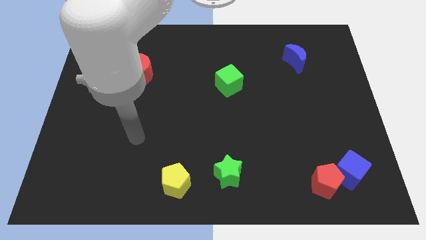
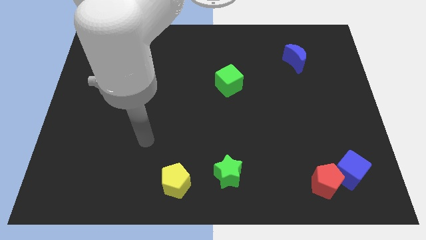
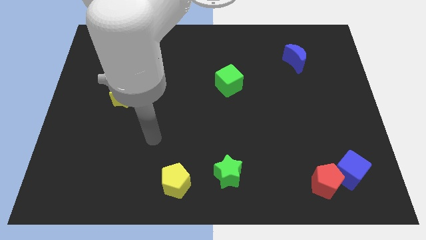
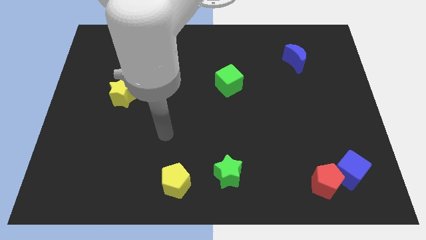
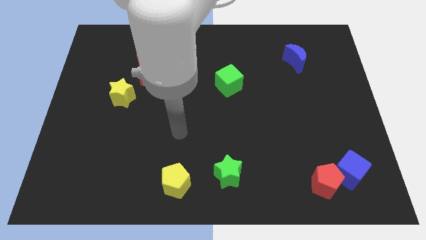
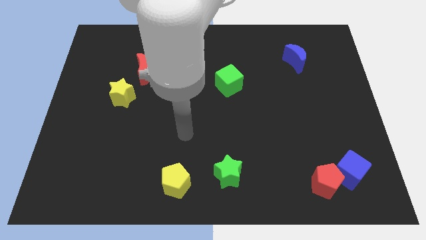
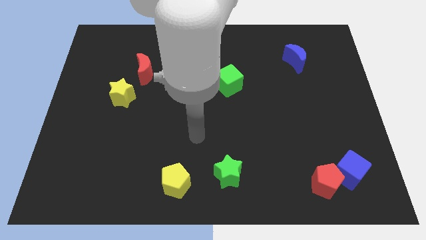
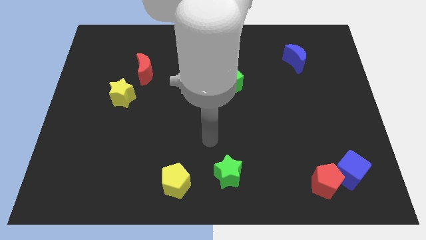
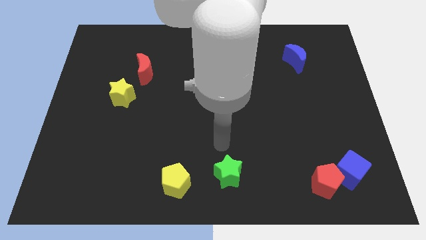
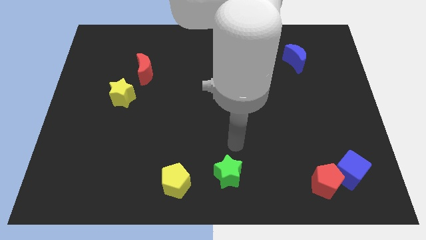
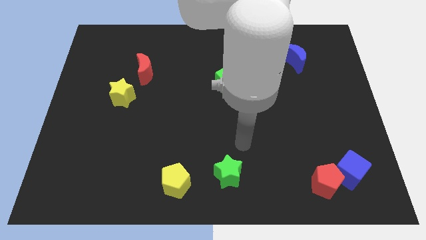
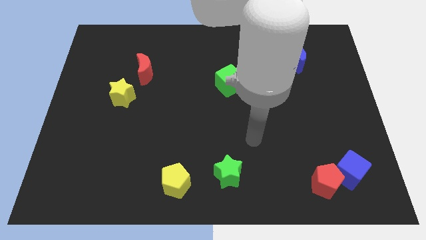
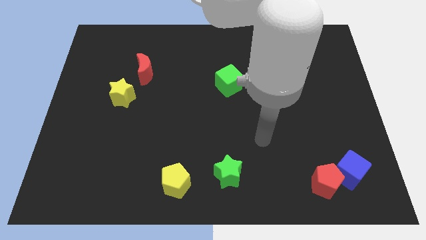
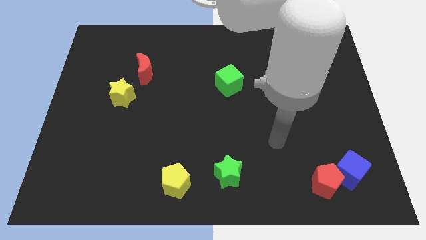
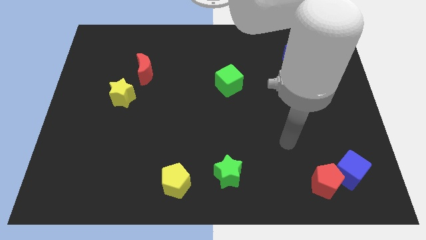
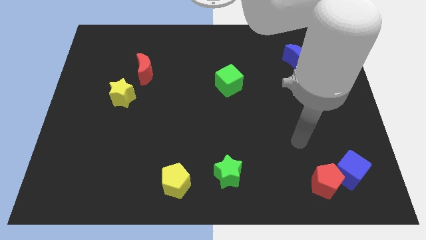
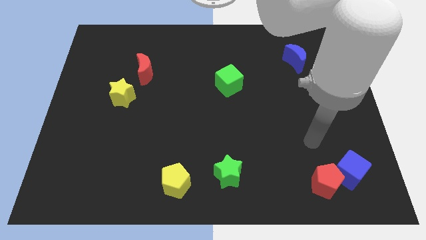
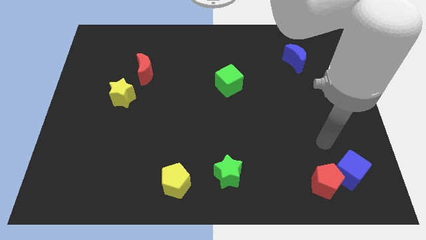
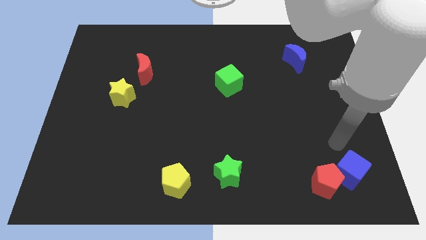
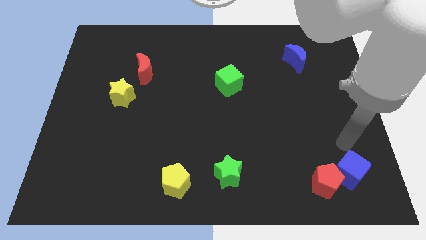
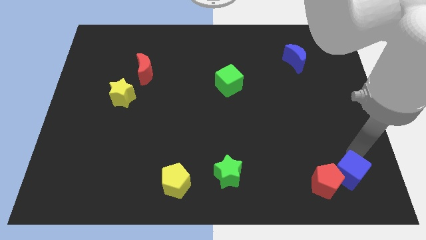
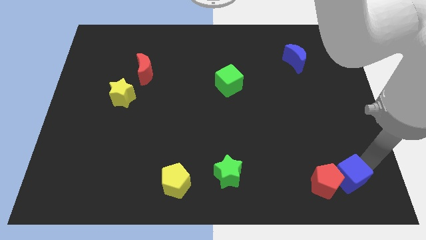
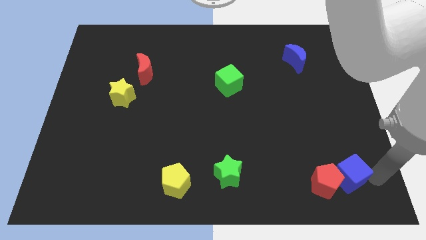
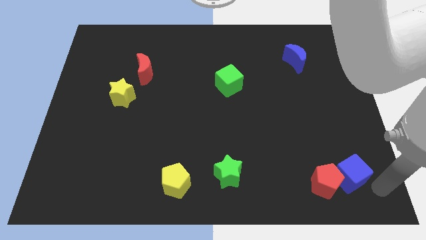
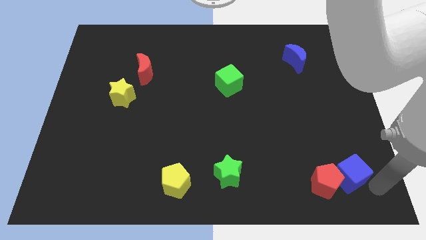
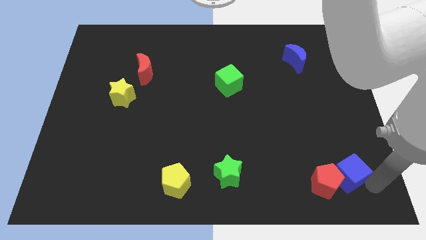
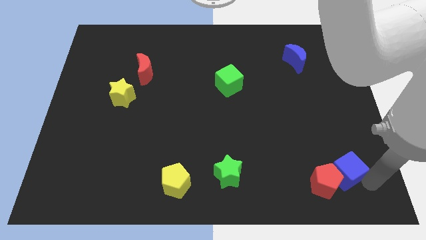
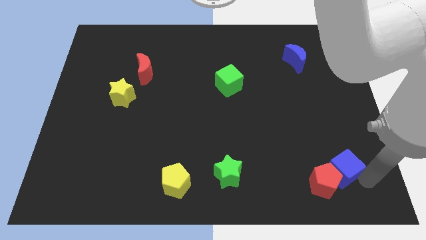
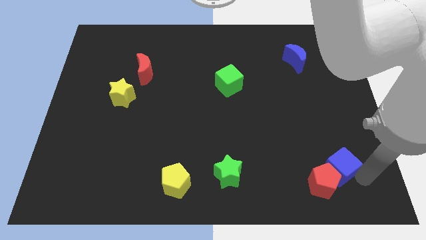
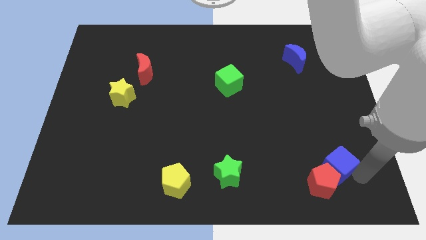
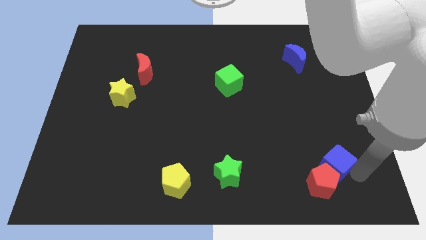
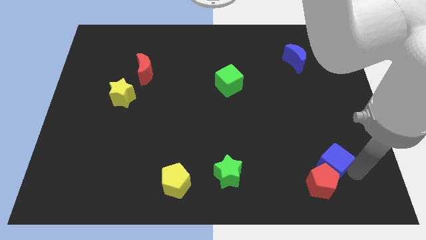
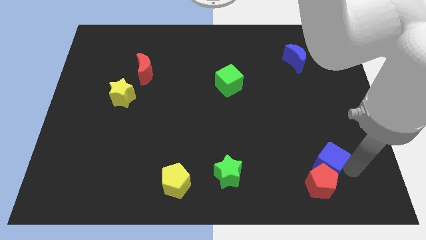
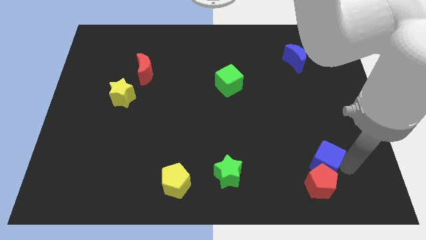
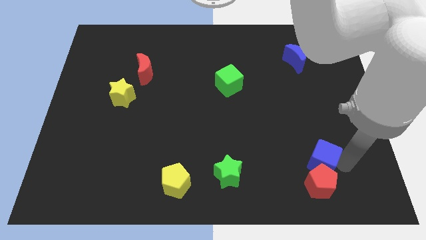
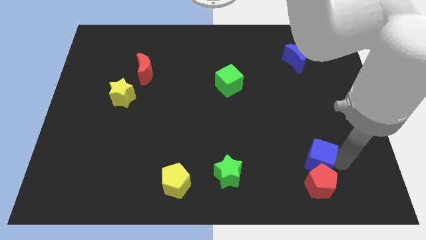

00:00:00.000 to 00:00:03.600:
put the blue cube diagonally up and to the left of the red pentagon

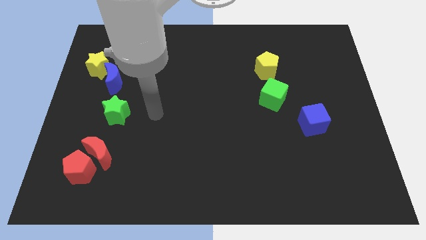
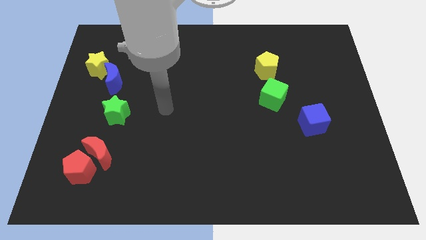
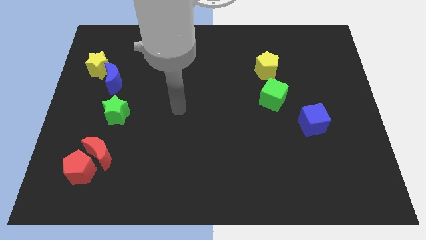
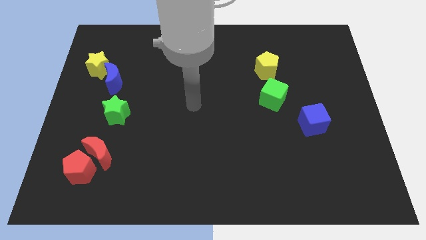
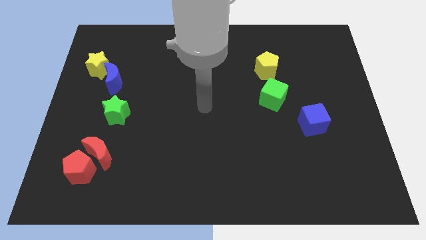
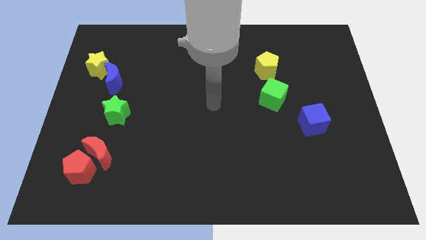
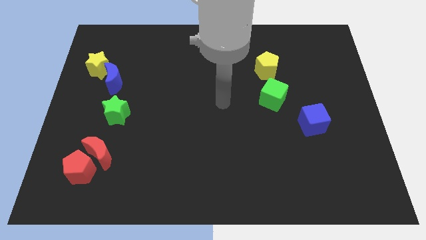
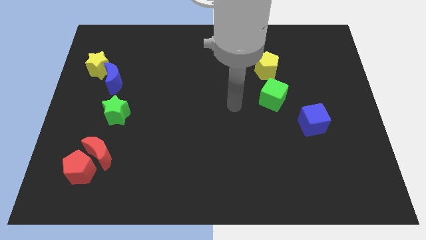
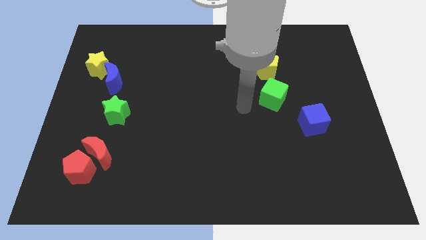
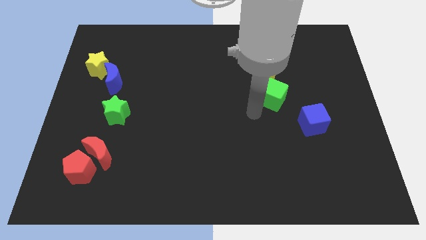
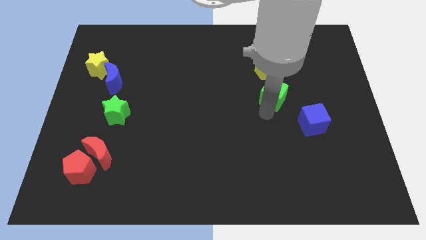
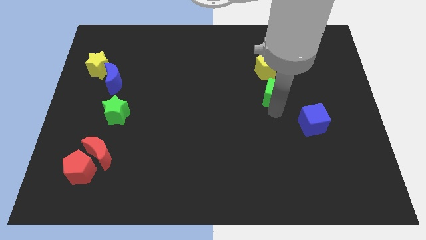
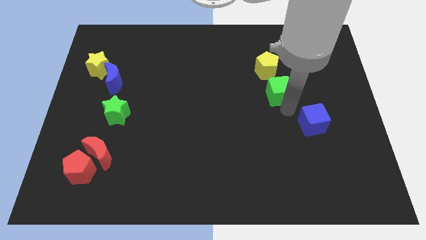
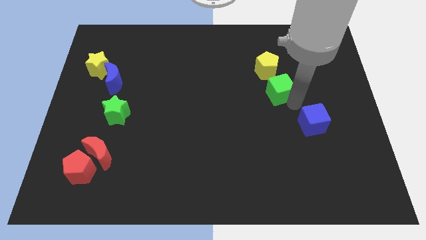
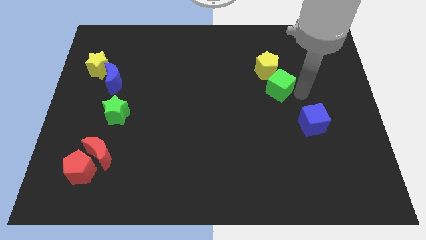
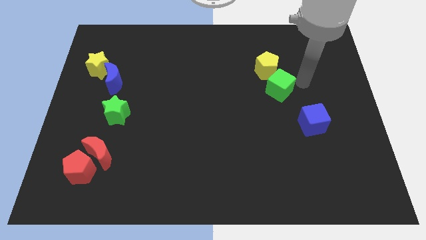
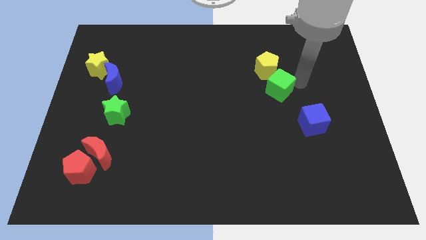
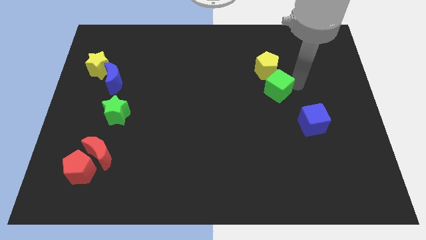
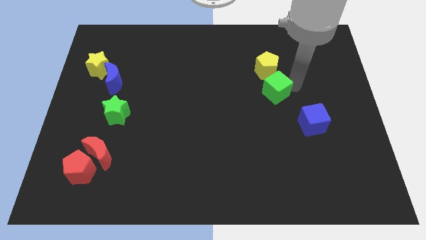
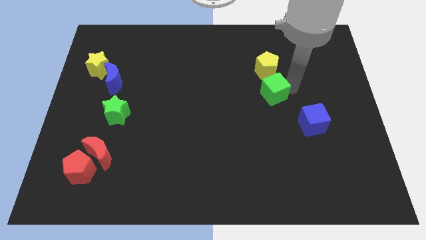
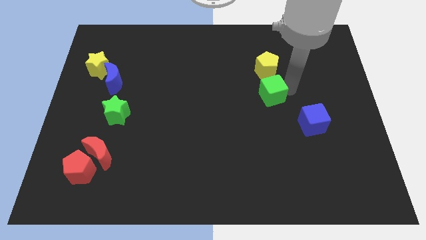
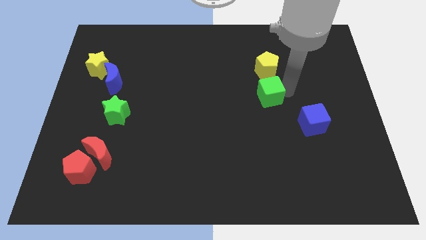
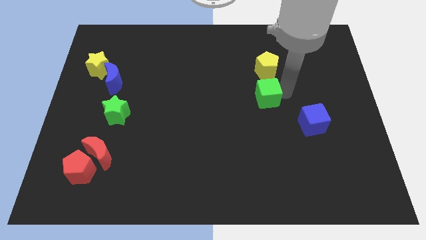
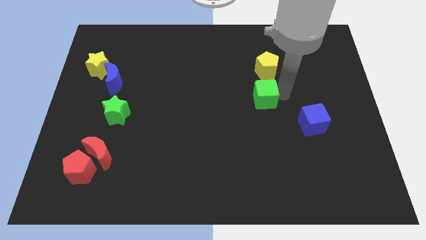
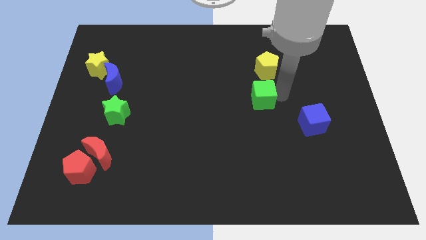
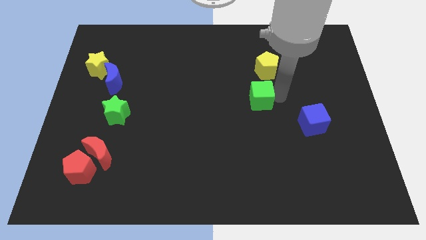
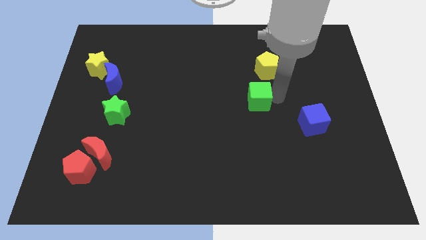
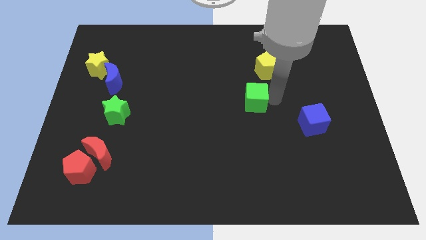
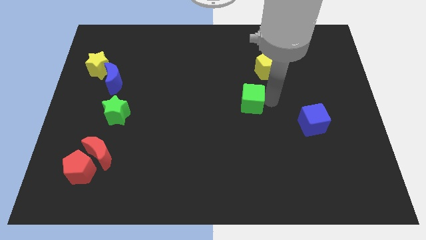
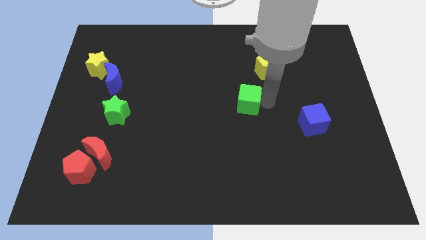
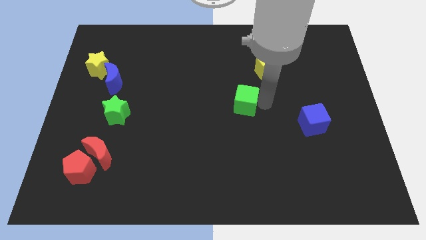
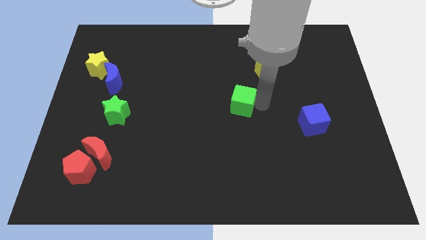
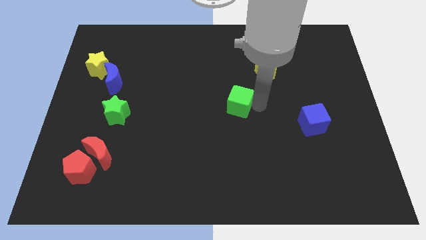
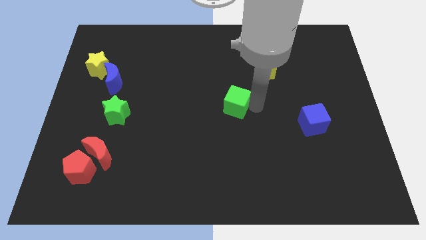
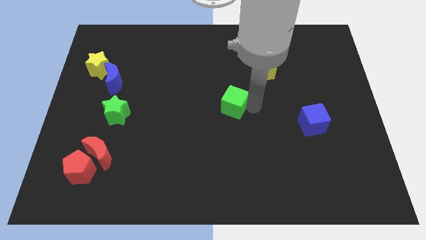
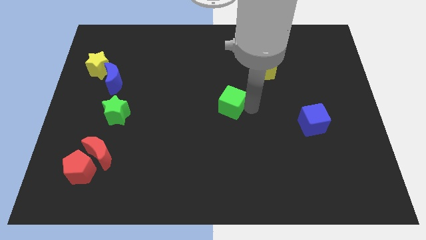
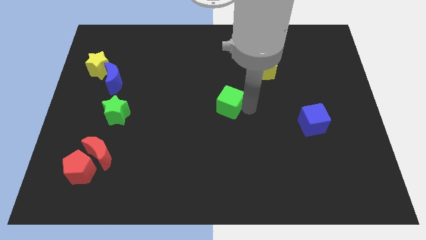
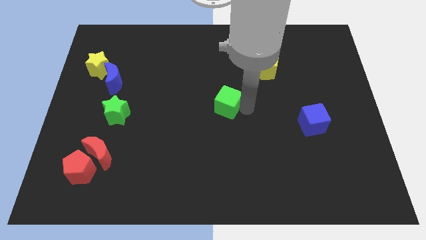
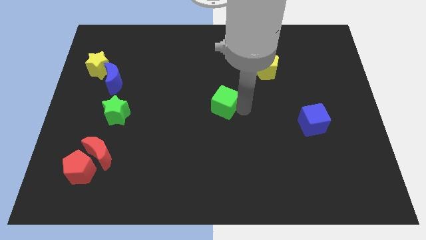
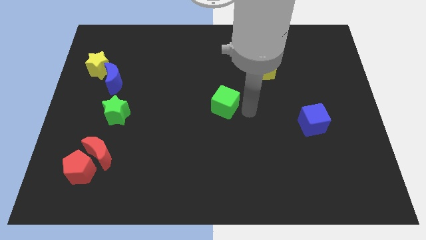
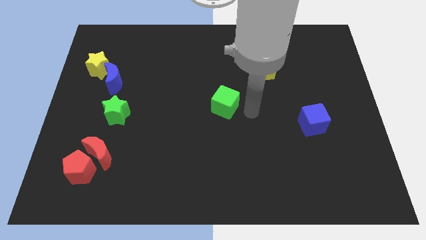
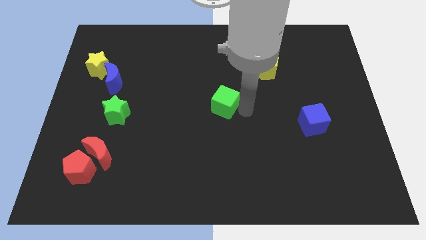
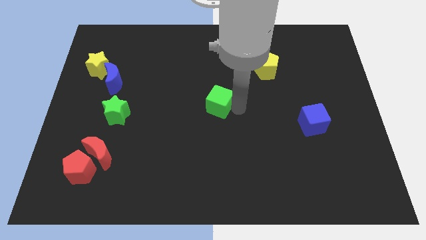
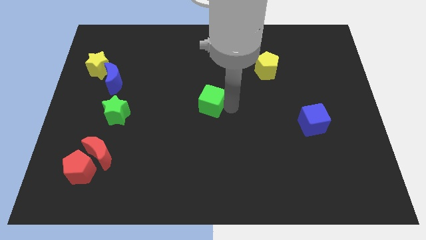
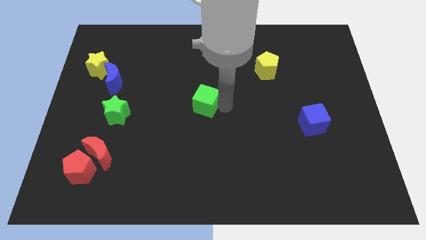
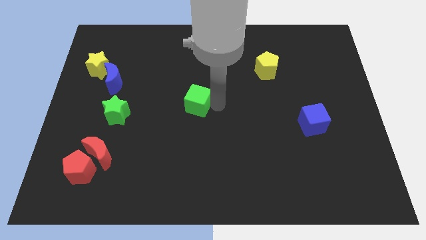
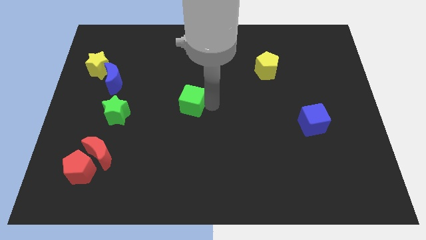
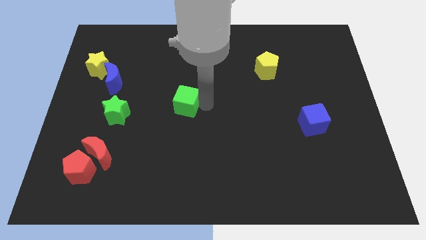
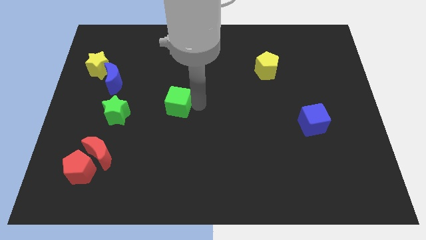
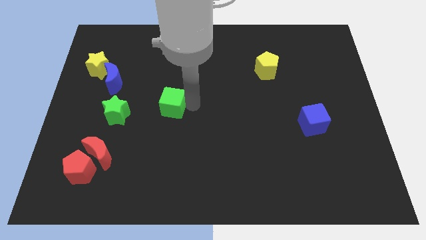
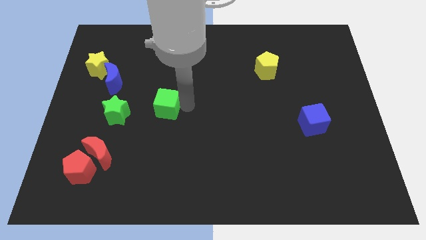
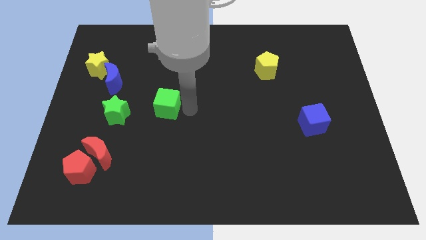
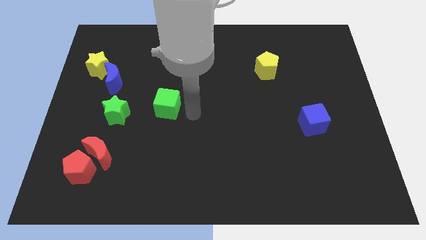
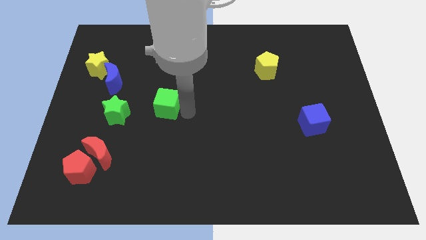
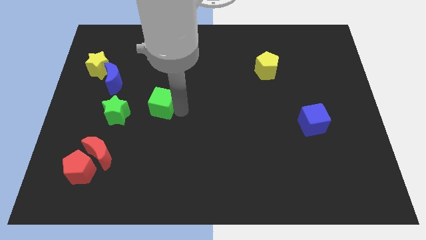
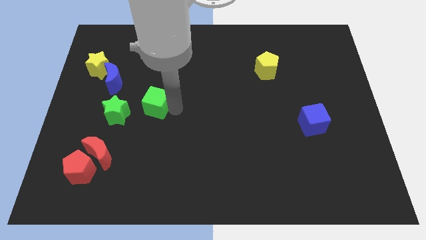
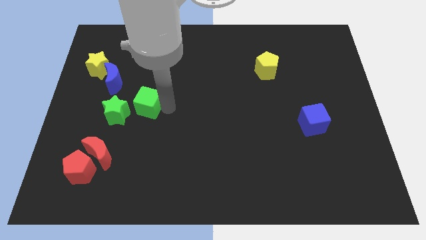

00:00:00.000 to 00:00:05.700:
move the green cube to the bottom right side of the blue moon
